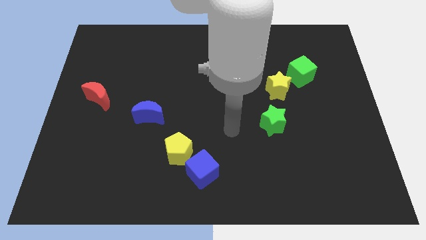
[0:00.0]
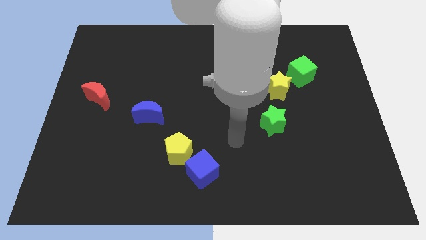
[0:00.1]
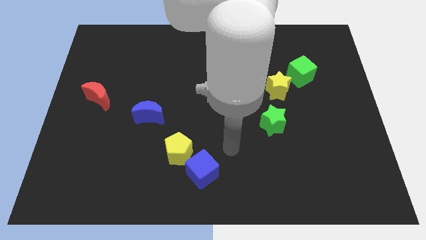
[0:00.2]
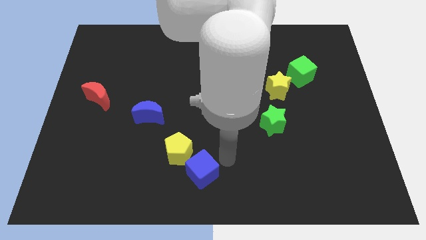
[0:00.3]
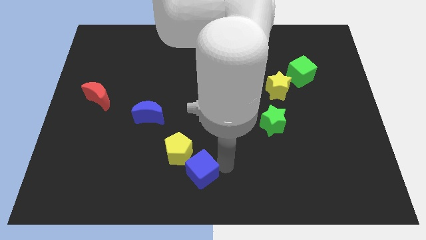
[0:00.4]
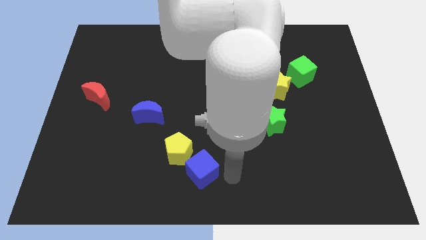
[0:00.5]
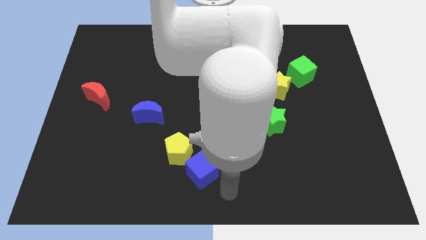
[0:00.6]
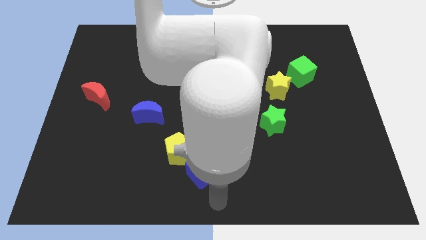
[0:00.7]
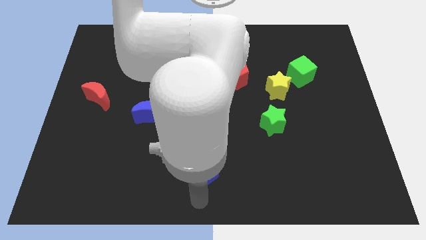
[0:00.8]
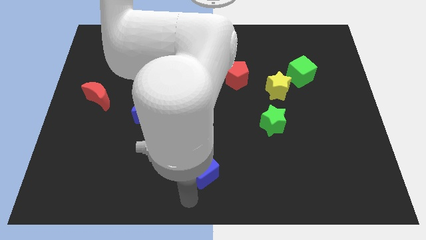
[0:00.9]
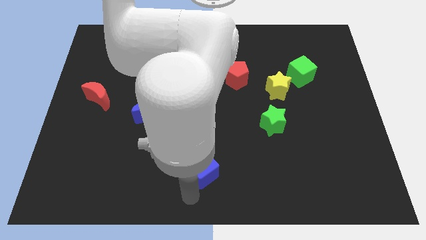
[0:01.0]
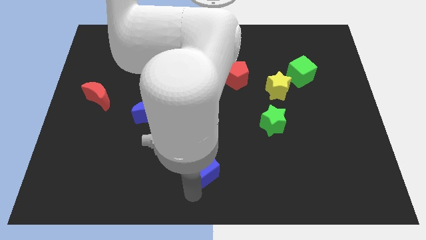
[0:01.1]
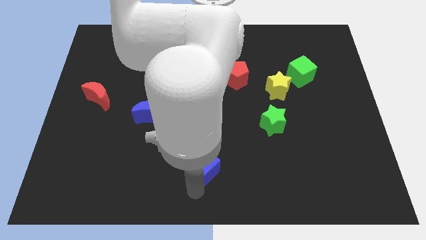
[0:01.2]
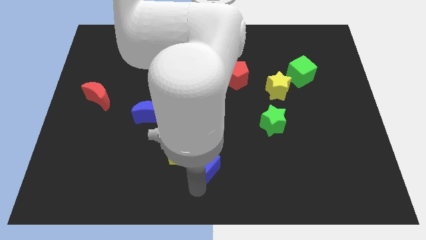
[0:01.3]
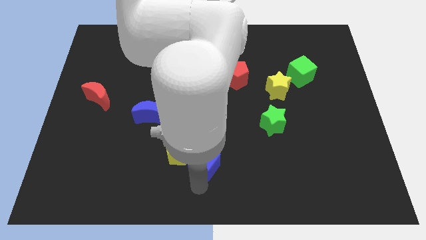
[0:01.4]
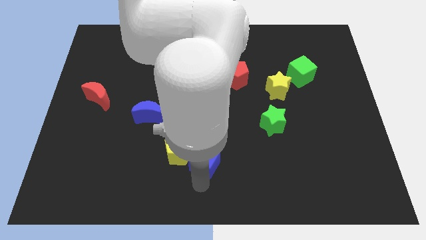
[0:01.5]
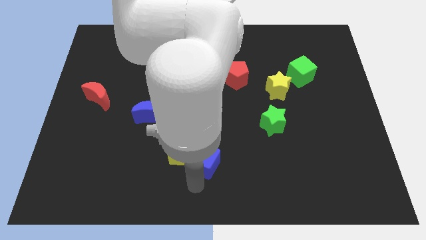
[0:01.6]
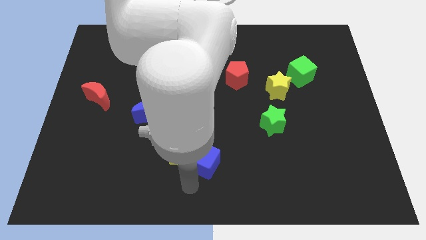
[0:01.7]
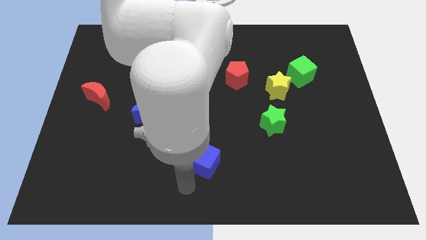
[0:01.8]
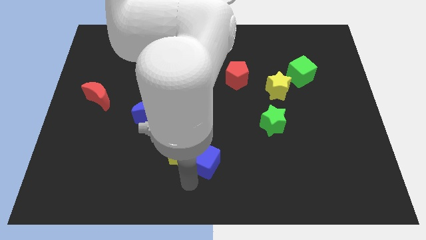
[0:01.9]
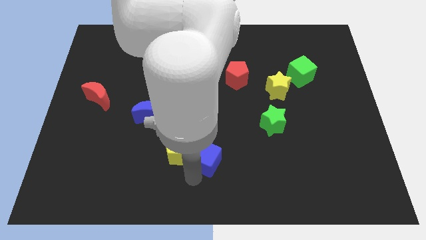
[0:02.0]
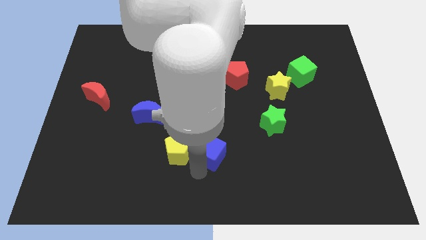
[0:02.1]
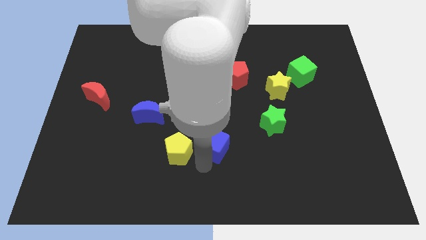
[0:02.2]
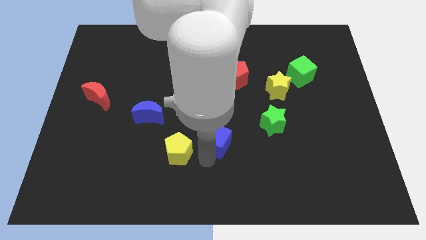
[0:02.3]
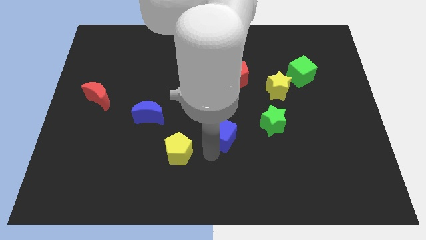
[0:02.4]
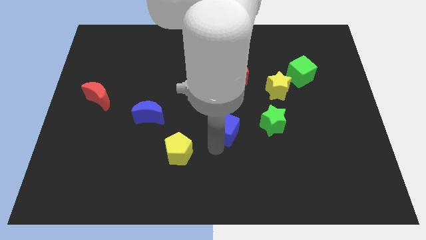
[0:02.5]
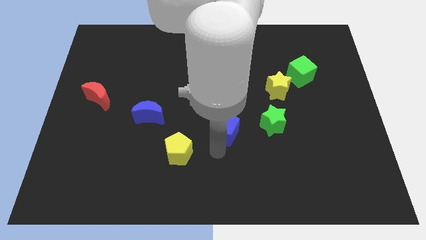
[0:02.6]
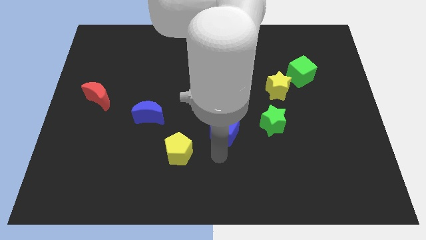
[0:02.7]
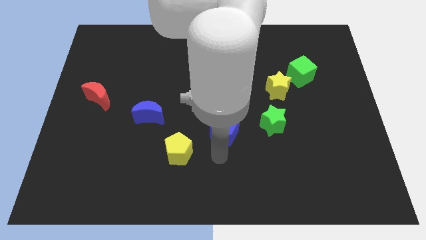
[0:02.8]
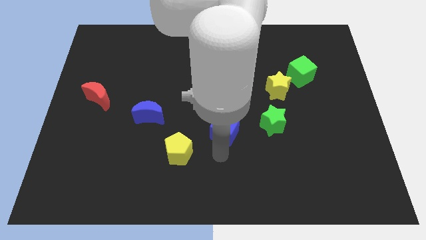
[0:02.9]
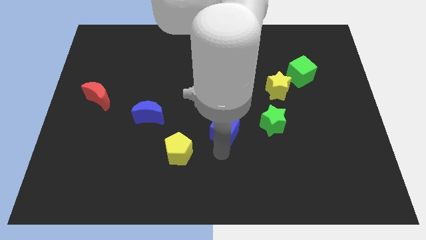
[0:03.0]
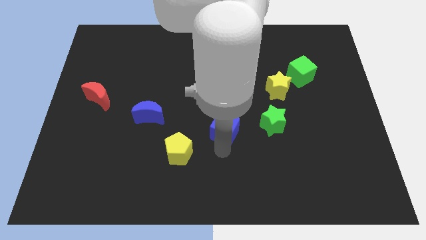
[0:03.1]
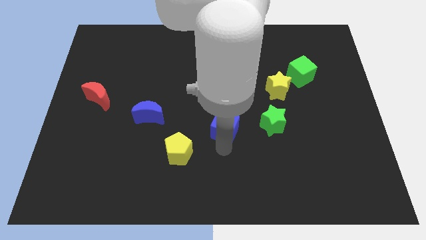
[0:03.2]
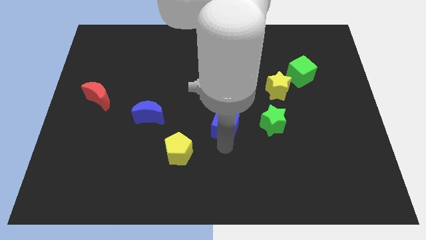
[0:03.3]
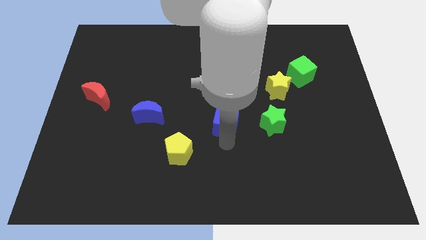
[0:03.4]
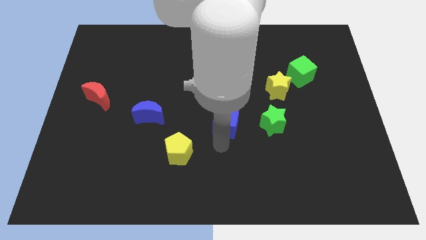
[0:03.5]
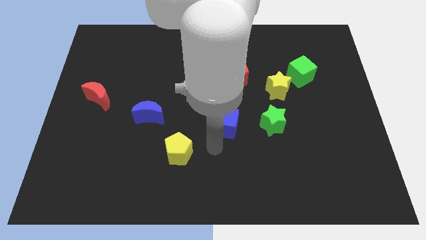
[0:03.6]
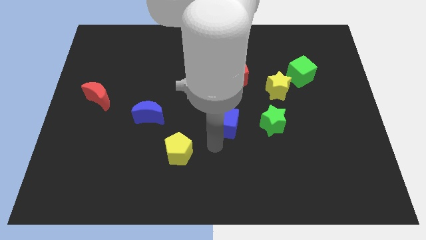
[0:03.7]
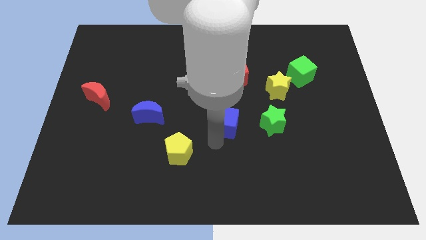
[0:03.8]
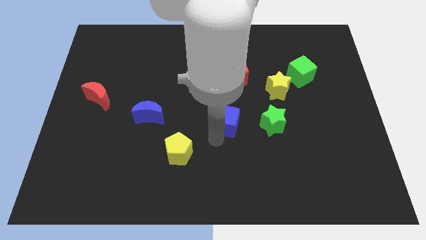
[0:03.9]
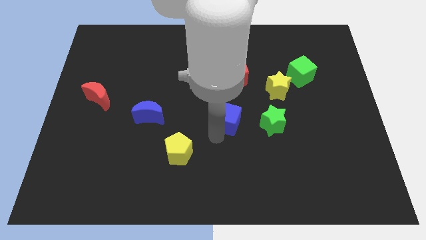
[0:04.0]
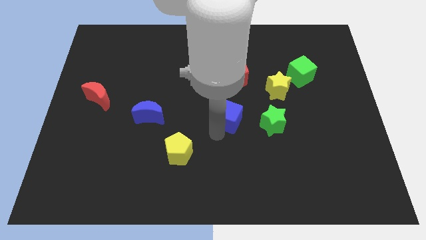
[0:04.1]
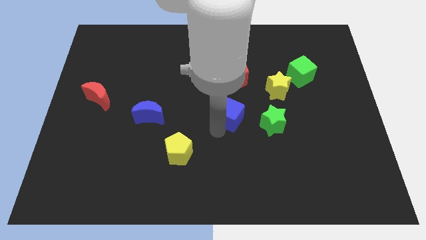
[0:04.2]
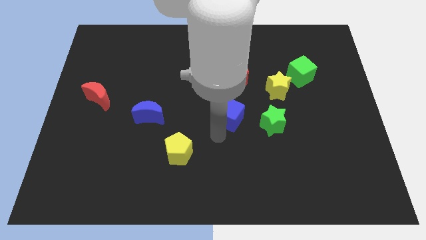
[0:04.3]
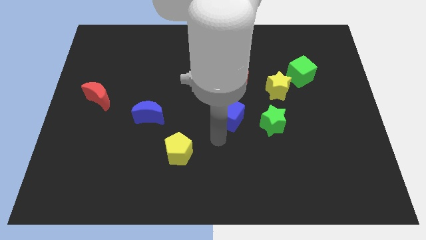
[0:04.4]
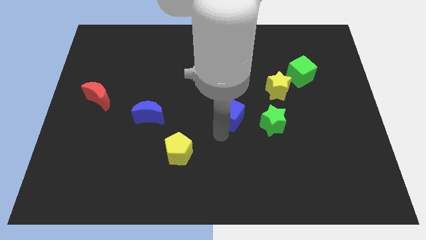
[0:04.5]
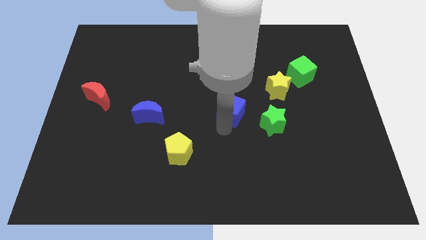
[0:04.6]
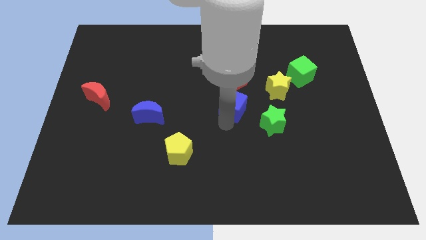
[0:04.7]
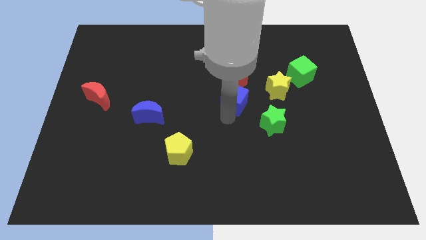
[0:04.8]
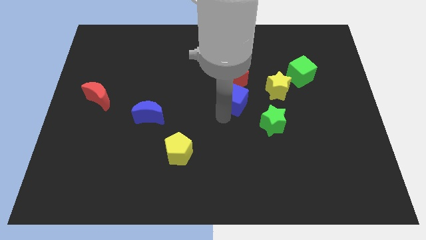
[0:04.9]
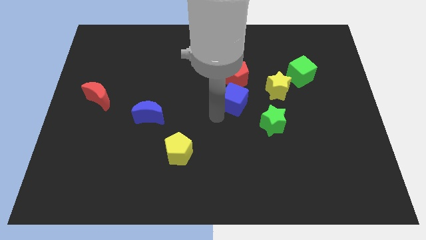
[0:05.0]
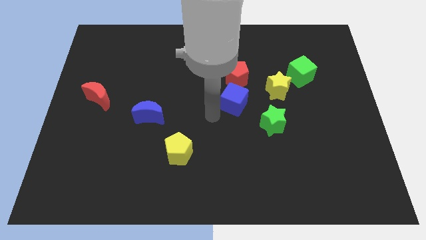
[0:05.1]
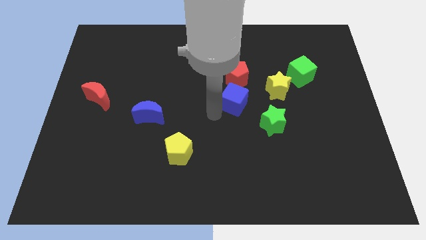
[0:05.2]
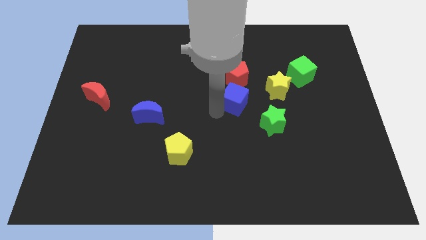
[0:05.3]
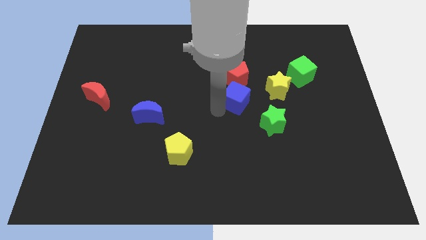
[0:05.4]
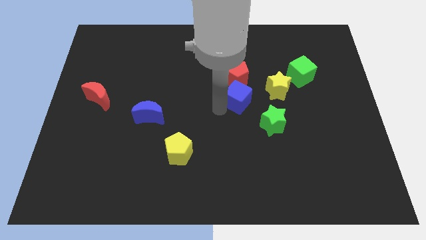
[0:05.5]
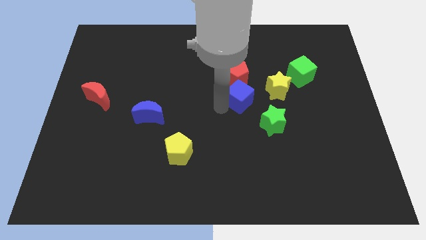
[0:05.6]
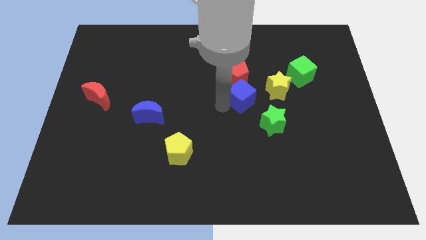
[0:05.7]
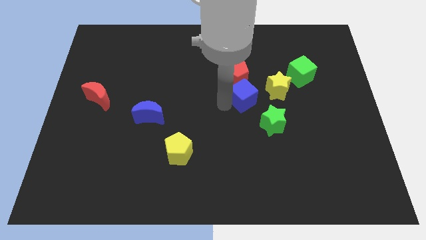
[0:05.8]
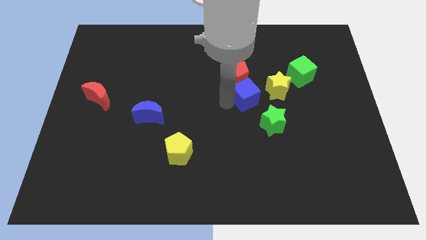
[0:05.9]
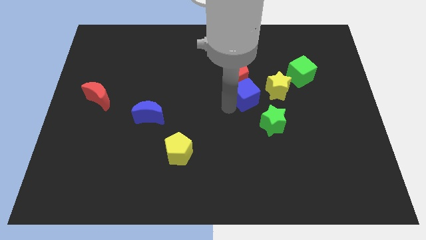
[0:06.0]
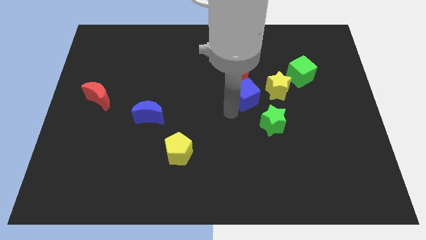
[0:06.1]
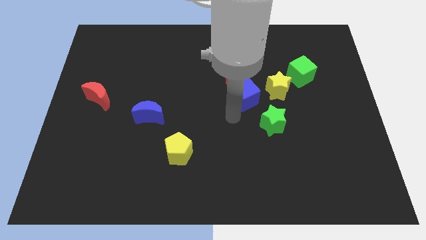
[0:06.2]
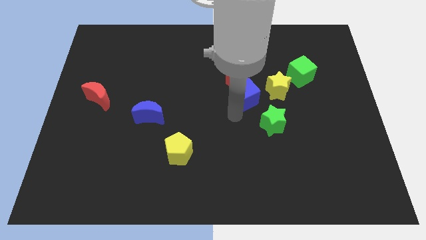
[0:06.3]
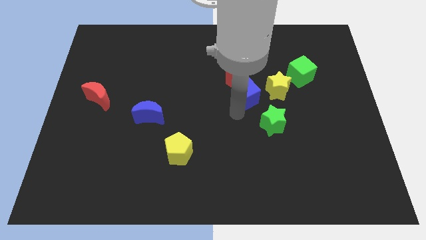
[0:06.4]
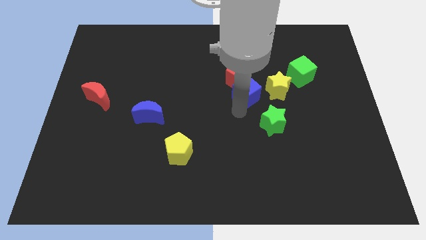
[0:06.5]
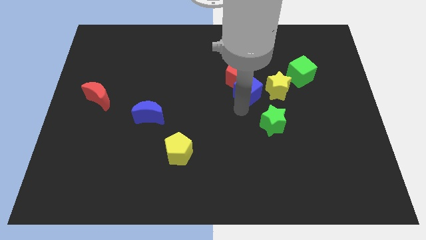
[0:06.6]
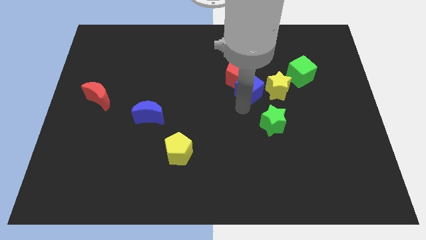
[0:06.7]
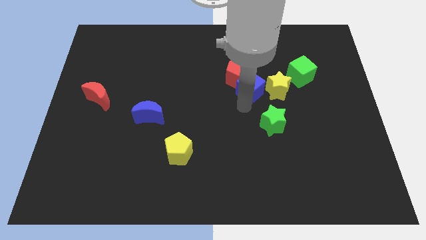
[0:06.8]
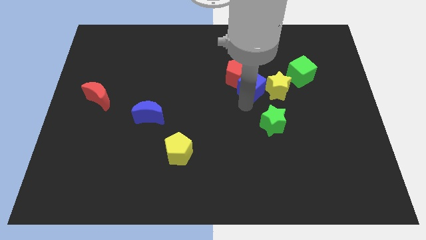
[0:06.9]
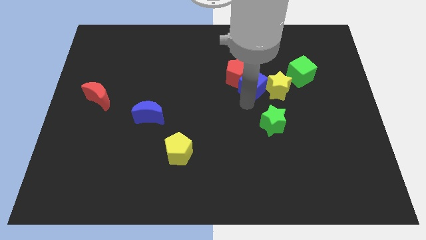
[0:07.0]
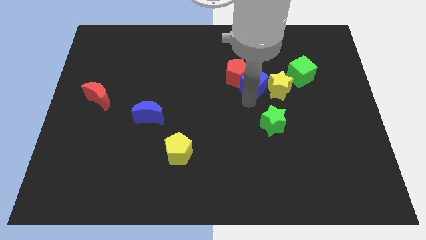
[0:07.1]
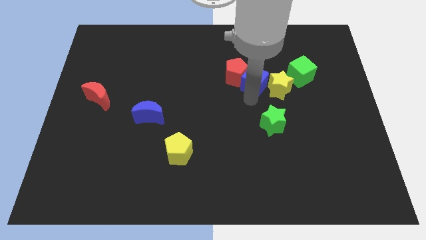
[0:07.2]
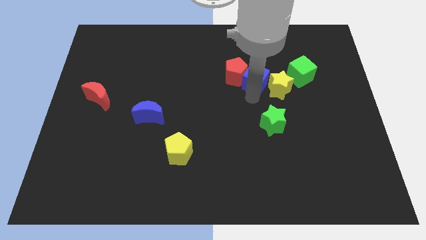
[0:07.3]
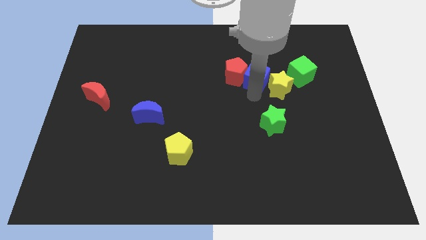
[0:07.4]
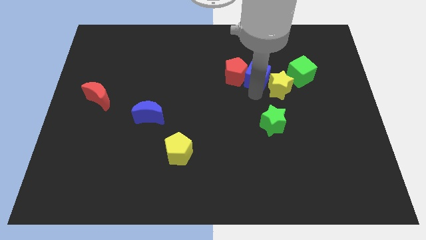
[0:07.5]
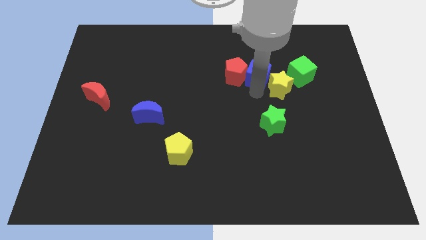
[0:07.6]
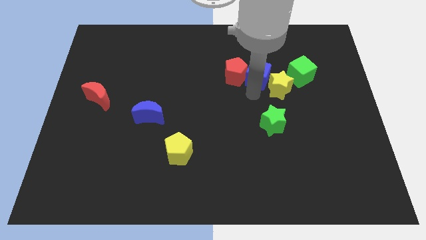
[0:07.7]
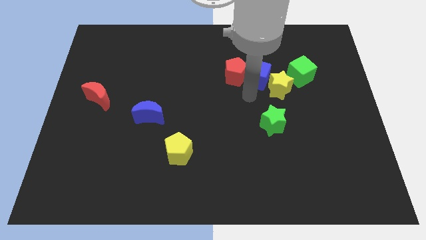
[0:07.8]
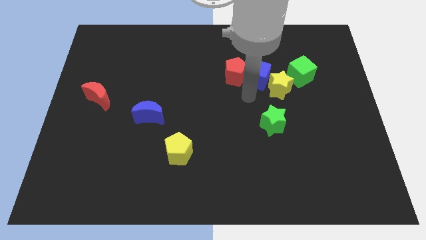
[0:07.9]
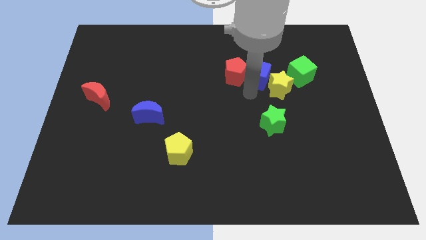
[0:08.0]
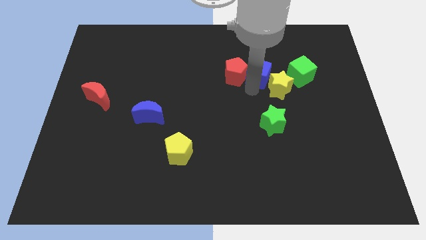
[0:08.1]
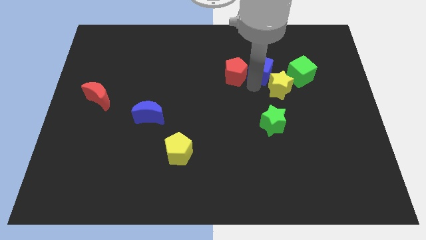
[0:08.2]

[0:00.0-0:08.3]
put the blue cube above the yellow star

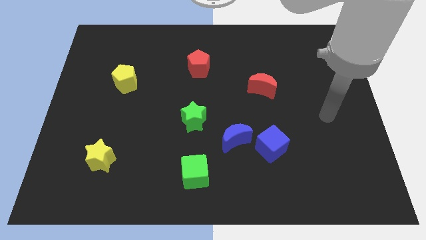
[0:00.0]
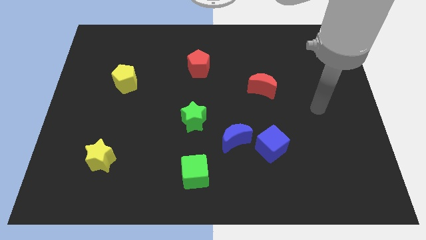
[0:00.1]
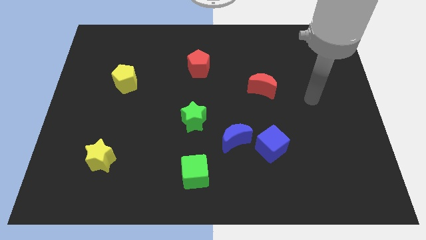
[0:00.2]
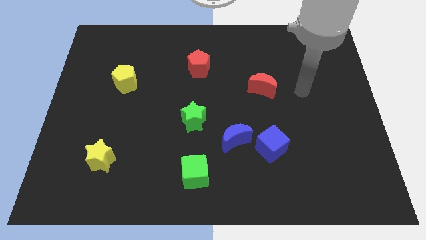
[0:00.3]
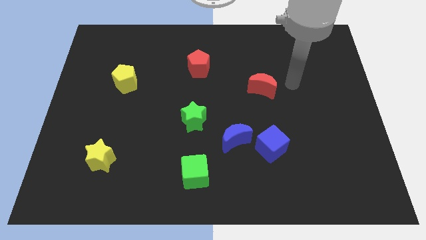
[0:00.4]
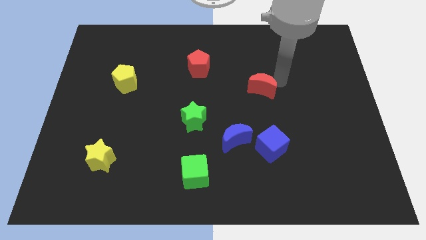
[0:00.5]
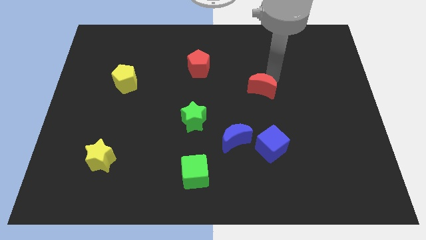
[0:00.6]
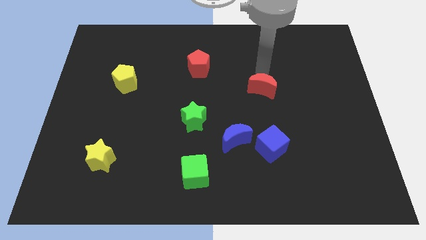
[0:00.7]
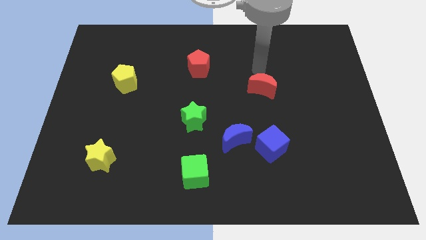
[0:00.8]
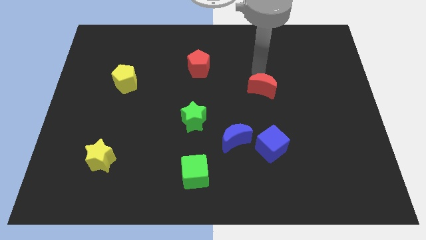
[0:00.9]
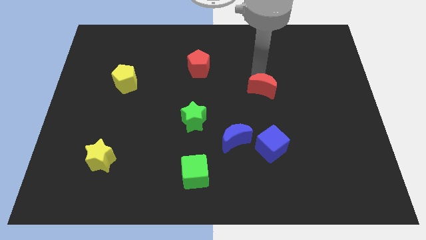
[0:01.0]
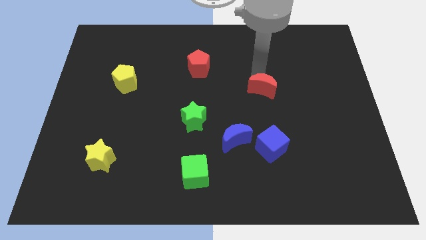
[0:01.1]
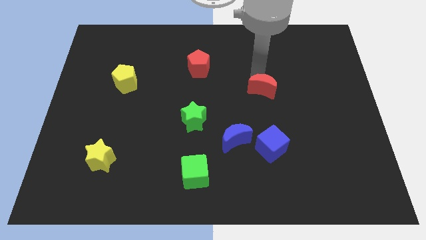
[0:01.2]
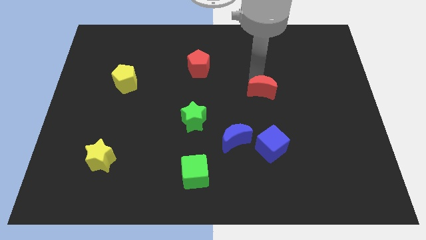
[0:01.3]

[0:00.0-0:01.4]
slide the red moon above the blue cube
